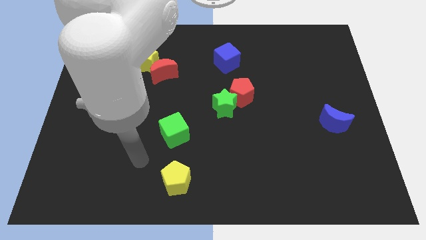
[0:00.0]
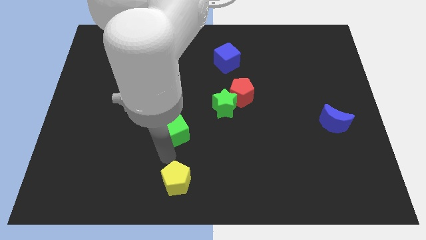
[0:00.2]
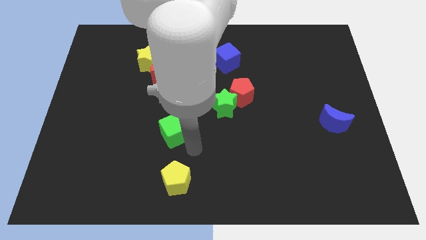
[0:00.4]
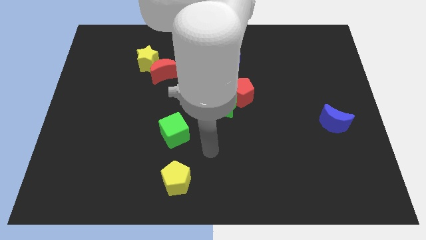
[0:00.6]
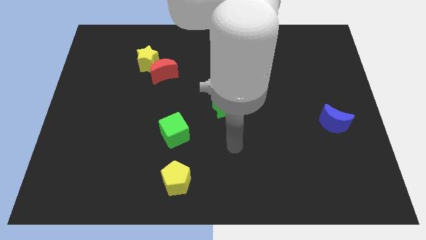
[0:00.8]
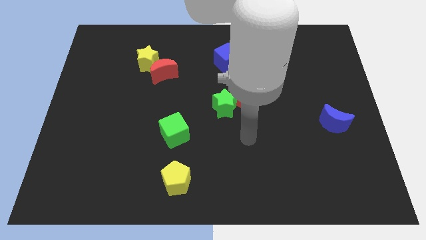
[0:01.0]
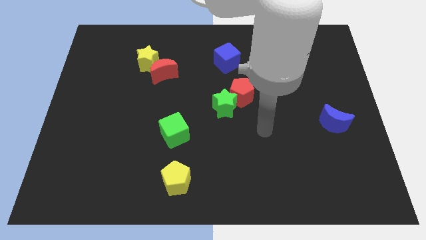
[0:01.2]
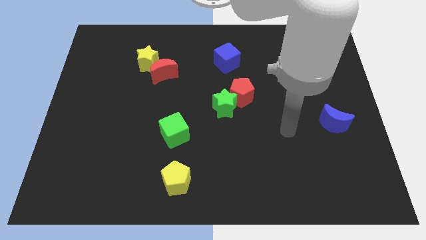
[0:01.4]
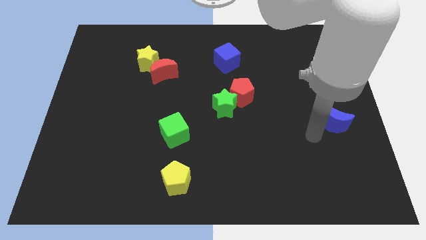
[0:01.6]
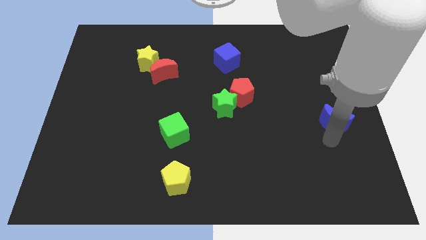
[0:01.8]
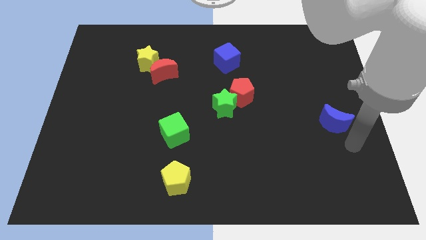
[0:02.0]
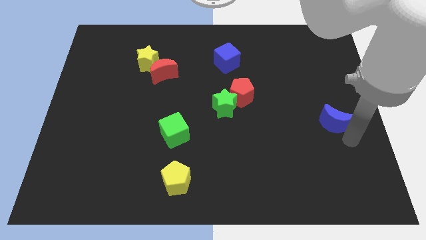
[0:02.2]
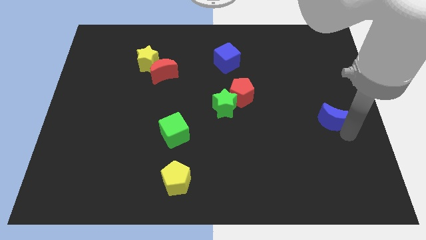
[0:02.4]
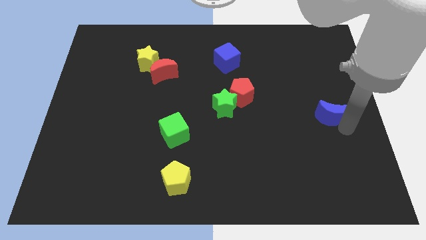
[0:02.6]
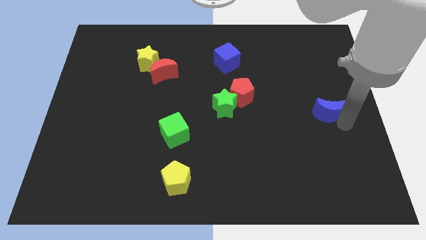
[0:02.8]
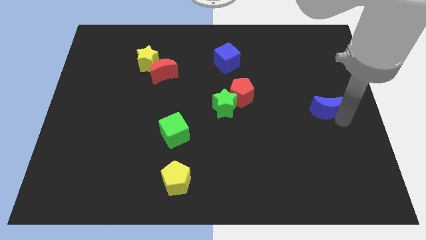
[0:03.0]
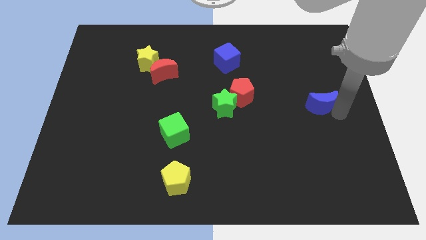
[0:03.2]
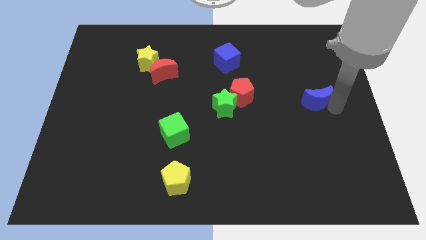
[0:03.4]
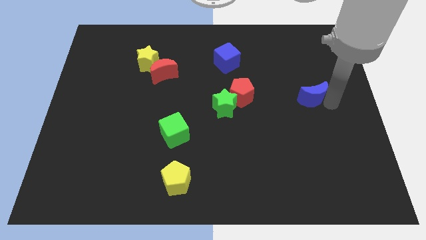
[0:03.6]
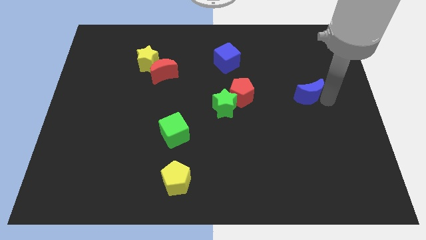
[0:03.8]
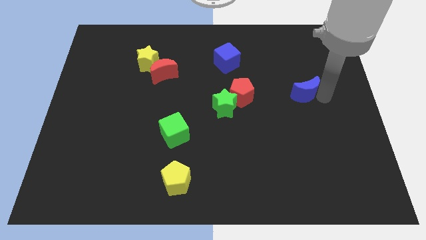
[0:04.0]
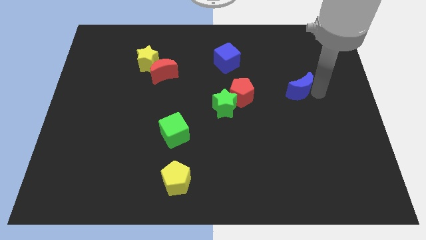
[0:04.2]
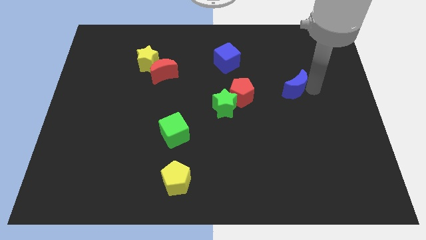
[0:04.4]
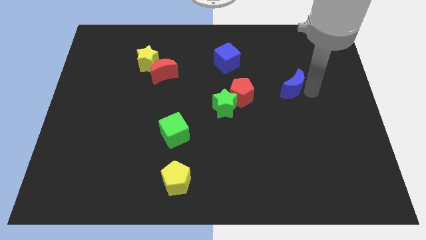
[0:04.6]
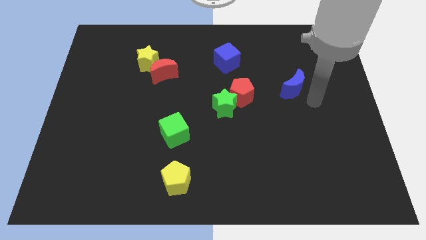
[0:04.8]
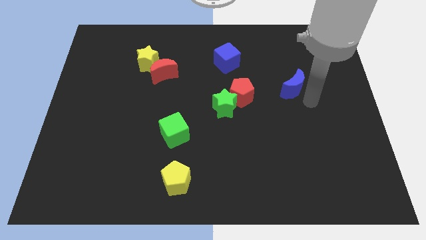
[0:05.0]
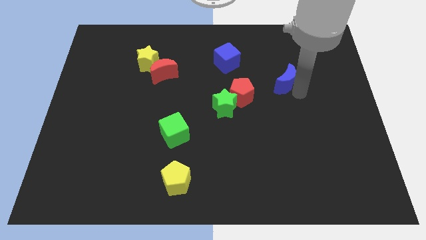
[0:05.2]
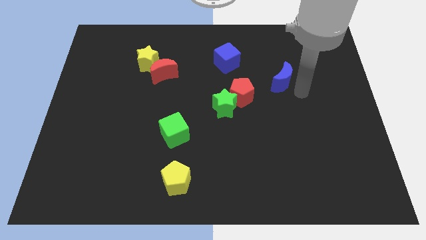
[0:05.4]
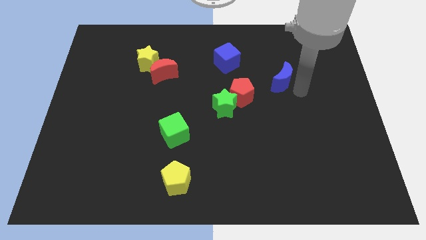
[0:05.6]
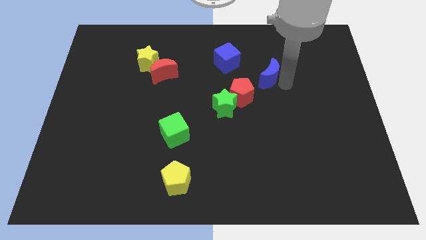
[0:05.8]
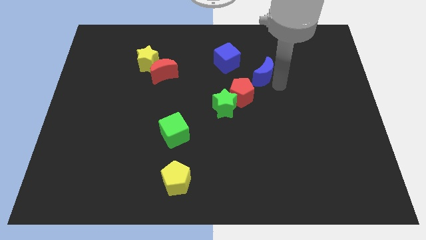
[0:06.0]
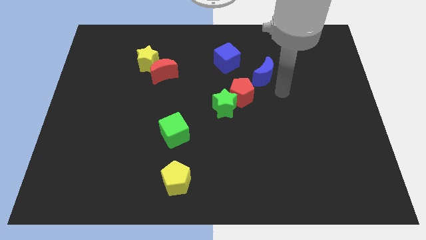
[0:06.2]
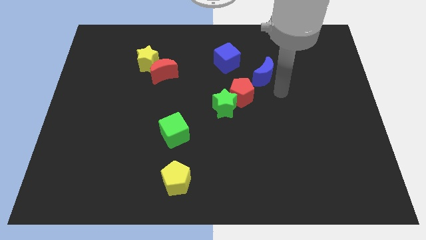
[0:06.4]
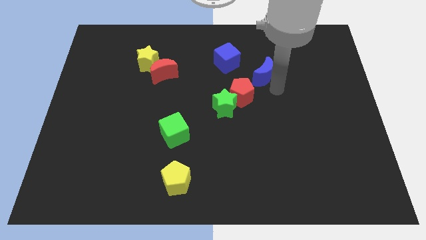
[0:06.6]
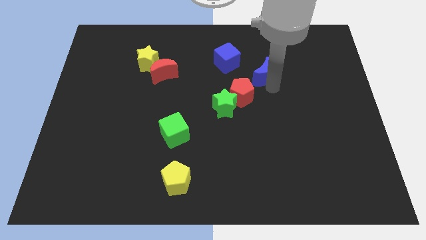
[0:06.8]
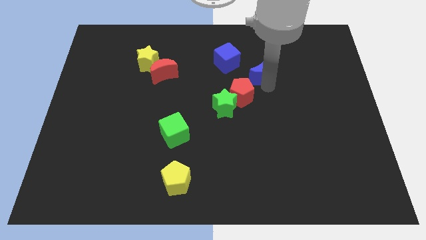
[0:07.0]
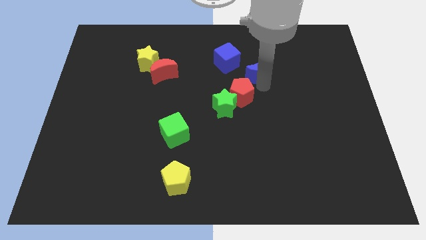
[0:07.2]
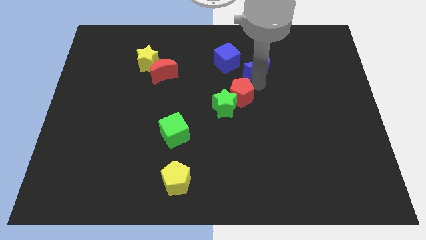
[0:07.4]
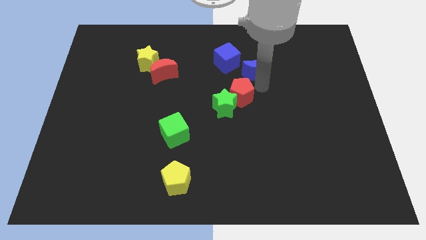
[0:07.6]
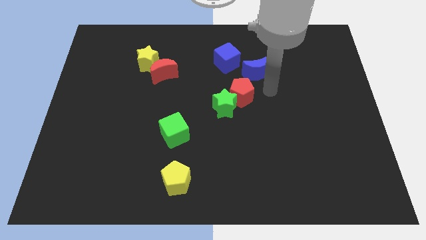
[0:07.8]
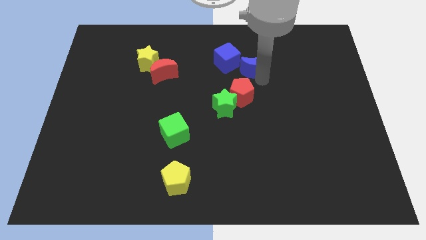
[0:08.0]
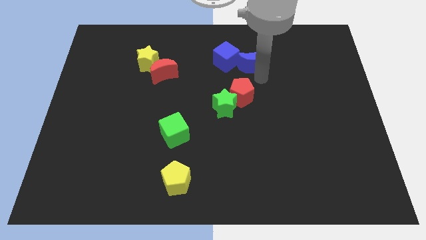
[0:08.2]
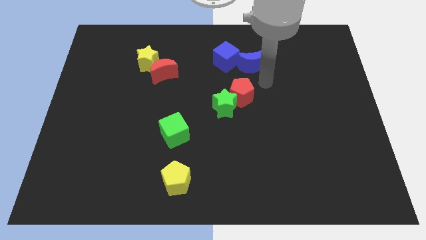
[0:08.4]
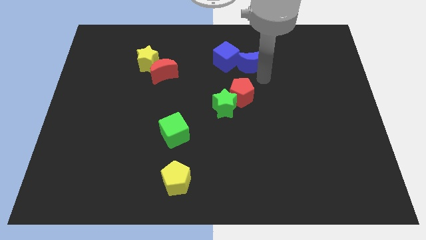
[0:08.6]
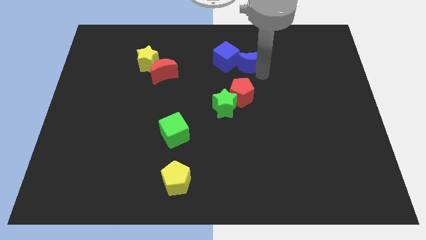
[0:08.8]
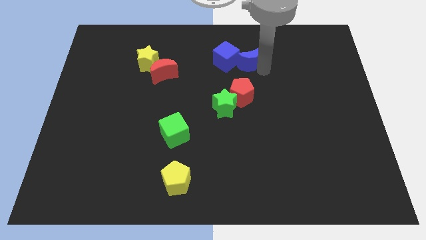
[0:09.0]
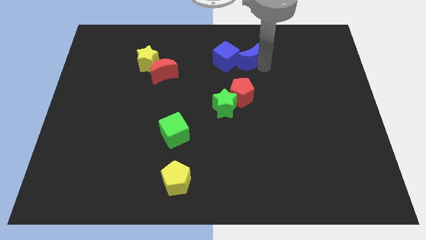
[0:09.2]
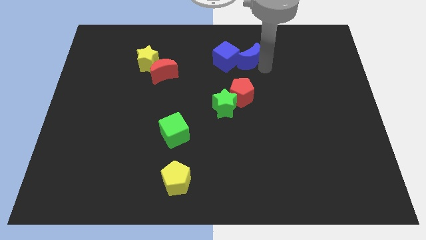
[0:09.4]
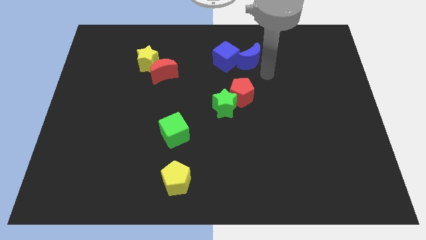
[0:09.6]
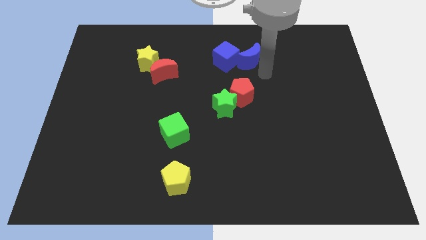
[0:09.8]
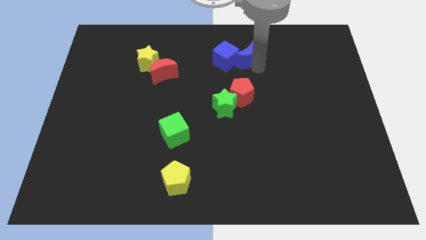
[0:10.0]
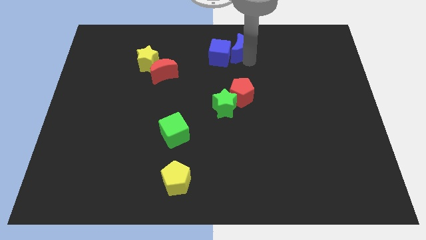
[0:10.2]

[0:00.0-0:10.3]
slide the blue moon to the top

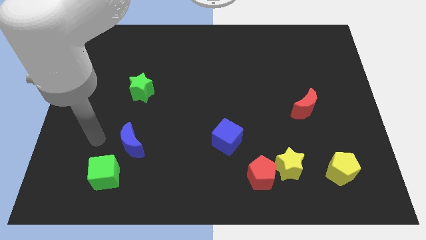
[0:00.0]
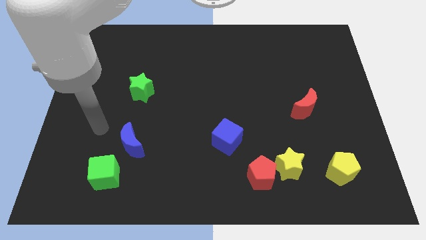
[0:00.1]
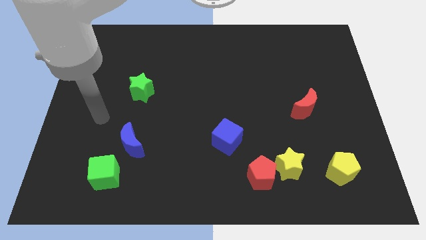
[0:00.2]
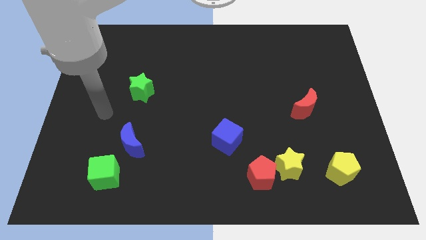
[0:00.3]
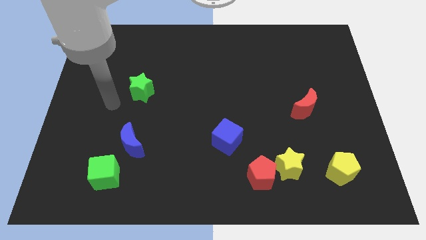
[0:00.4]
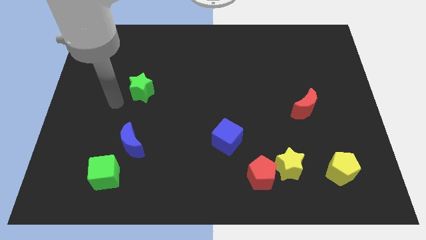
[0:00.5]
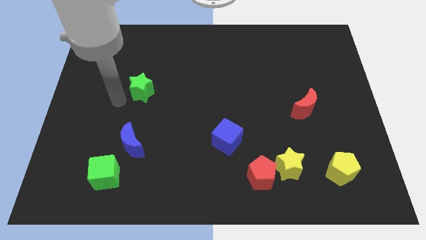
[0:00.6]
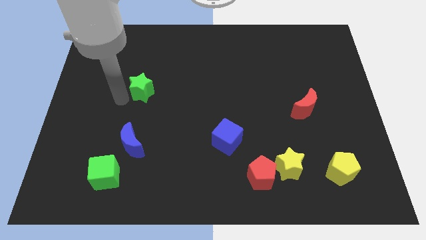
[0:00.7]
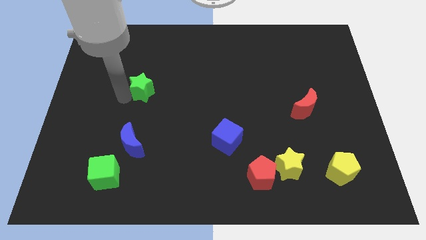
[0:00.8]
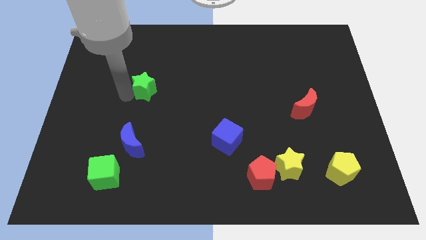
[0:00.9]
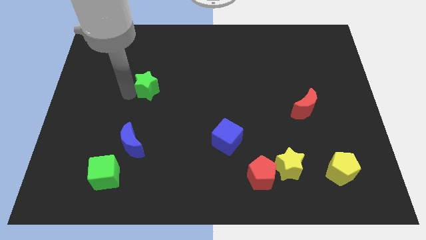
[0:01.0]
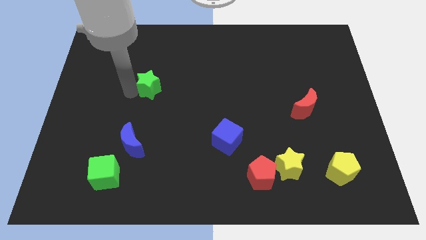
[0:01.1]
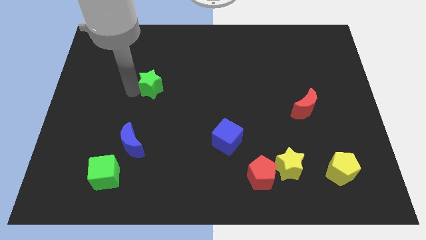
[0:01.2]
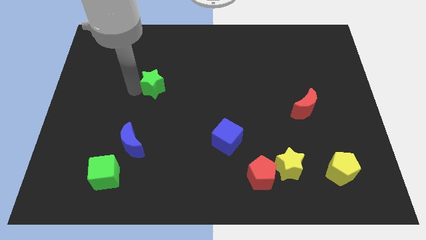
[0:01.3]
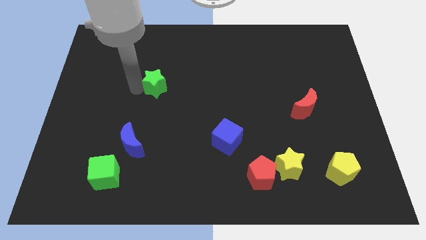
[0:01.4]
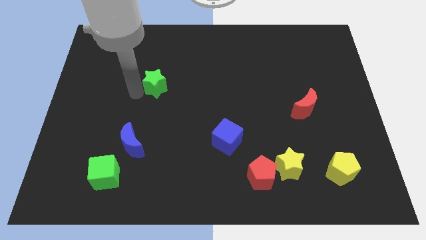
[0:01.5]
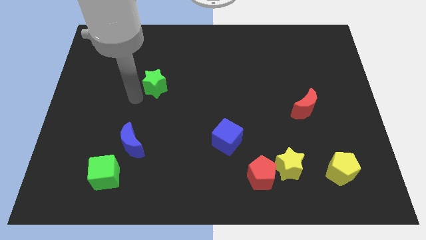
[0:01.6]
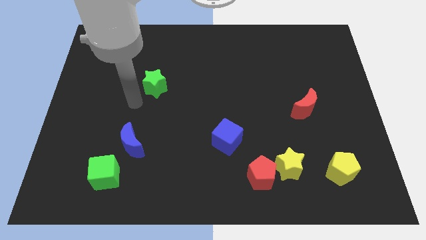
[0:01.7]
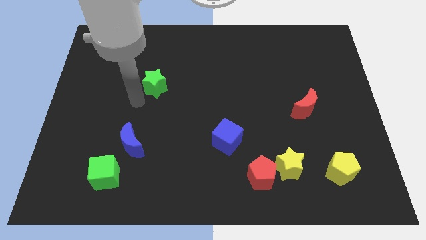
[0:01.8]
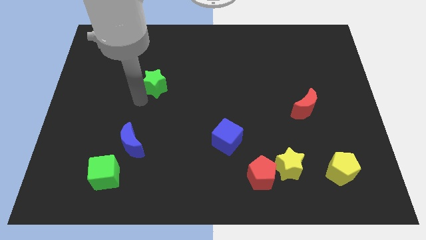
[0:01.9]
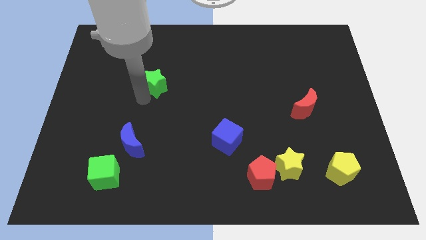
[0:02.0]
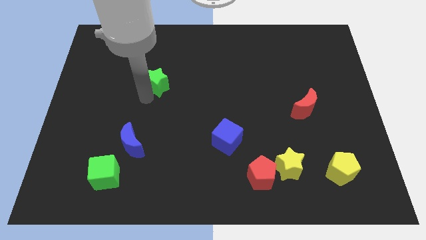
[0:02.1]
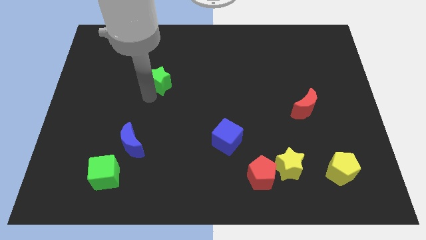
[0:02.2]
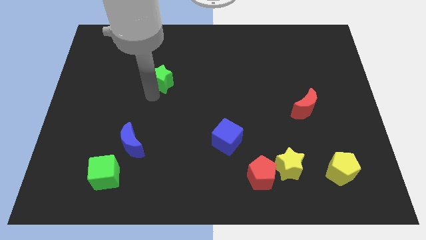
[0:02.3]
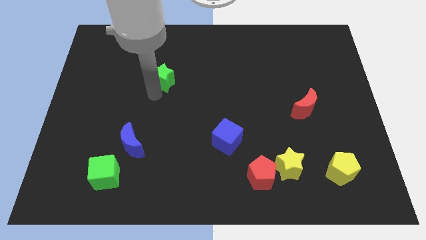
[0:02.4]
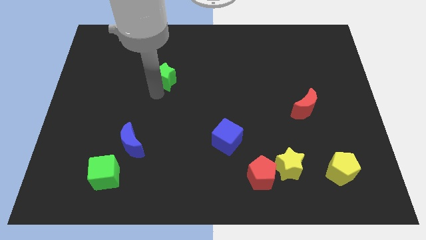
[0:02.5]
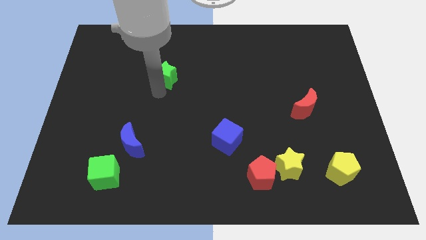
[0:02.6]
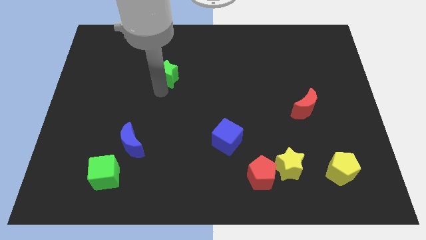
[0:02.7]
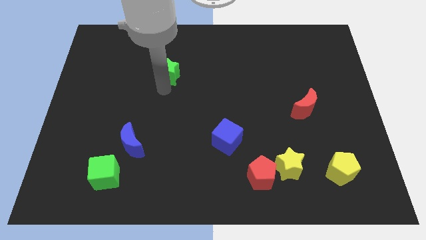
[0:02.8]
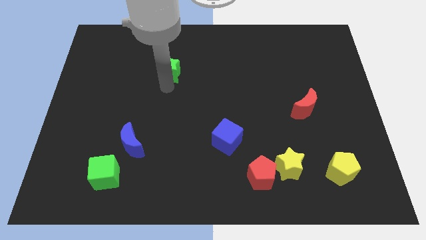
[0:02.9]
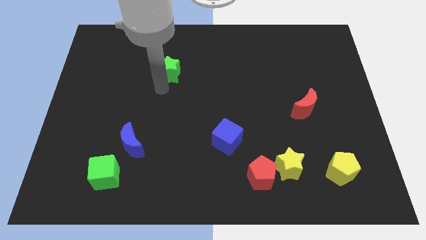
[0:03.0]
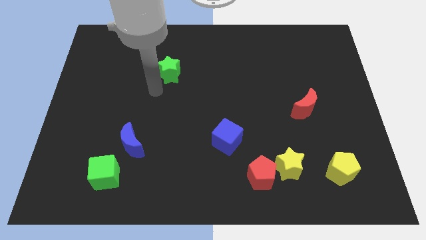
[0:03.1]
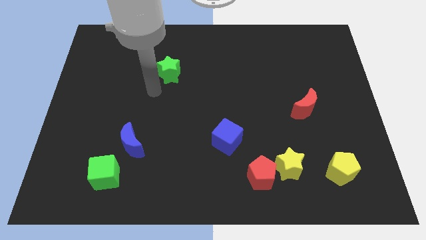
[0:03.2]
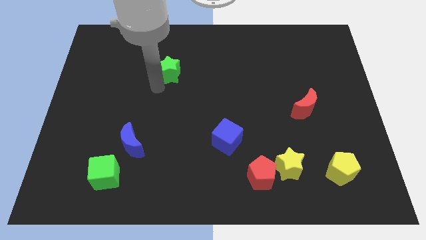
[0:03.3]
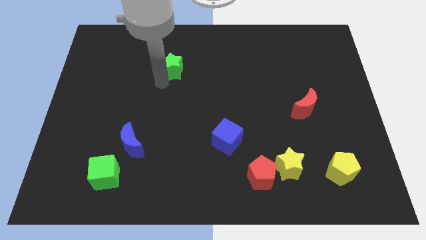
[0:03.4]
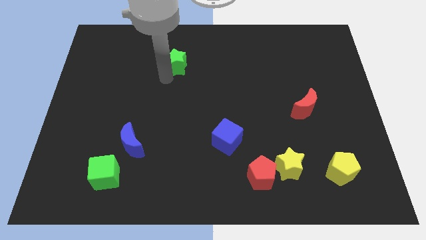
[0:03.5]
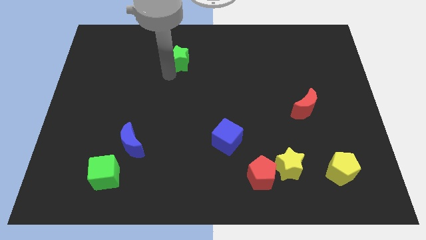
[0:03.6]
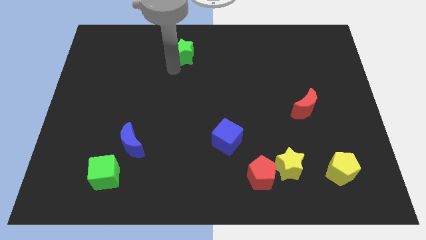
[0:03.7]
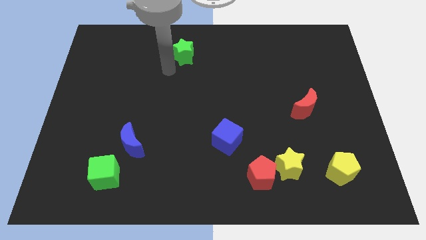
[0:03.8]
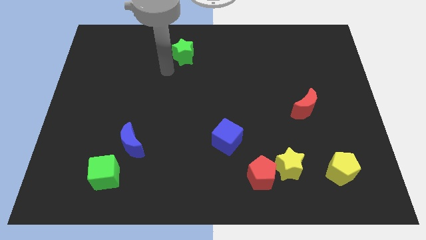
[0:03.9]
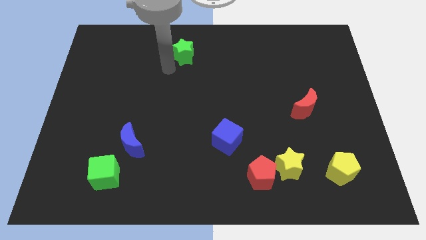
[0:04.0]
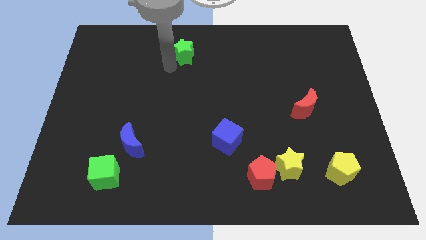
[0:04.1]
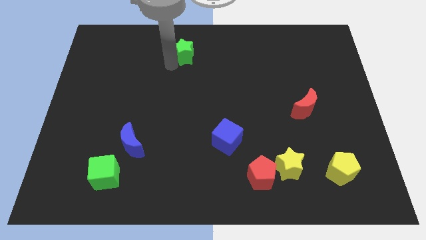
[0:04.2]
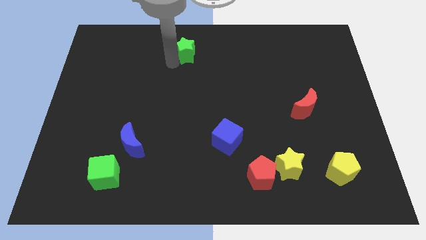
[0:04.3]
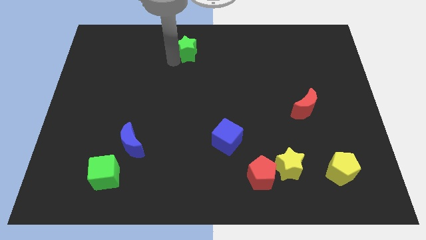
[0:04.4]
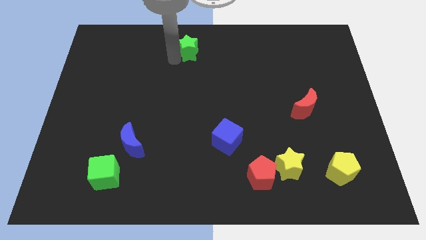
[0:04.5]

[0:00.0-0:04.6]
slide the green star to the top
